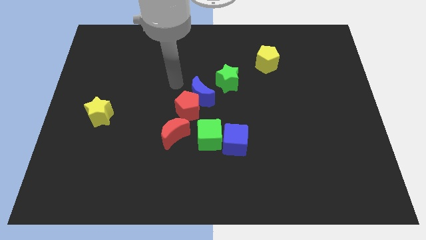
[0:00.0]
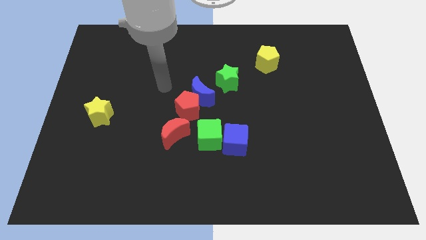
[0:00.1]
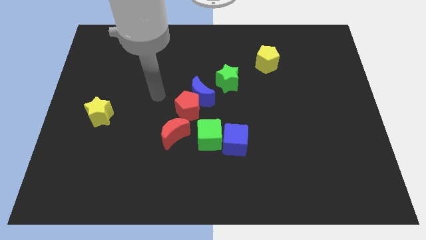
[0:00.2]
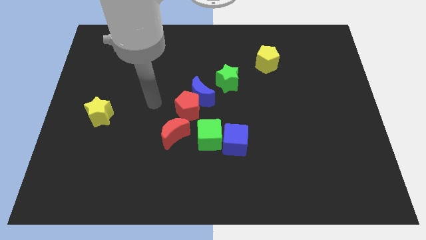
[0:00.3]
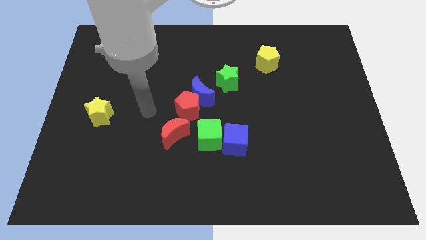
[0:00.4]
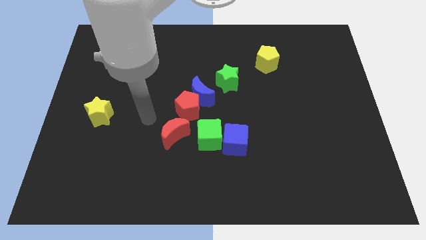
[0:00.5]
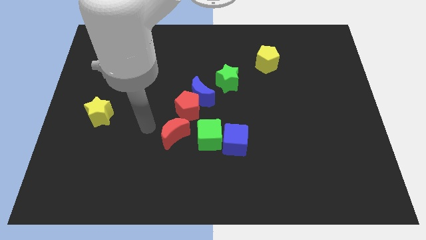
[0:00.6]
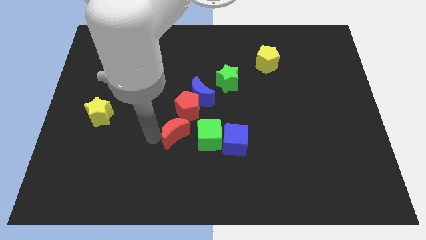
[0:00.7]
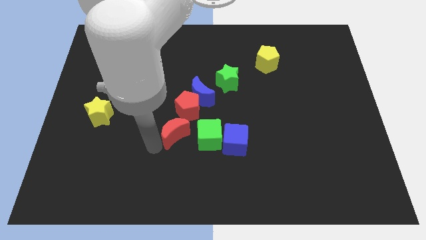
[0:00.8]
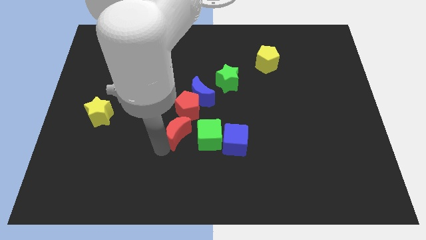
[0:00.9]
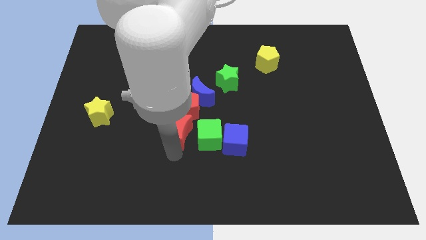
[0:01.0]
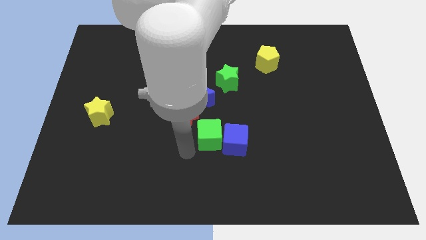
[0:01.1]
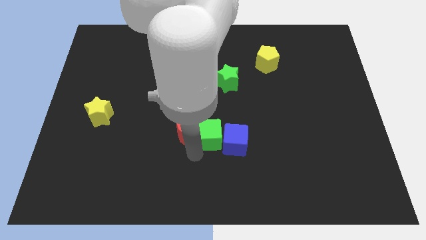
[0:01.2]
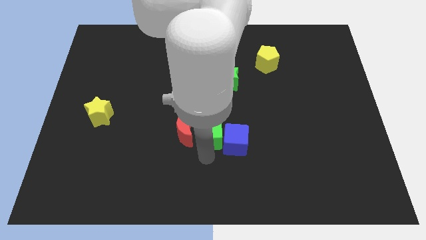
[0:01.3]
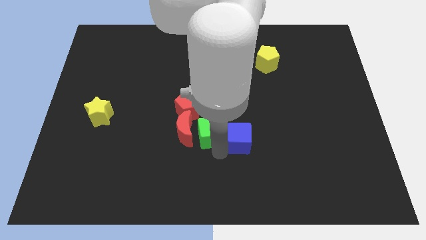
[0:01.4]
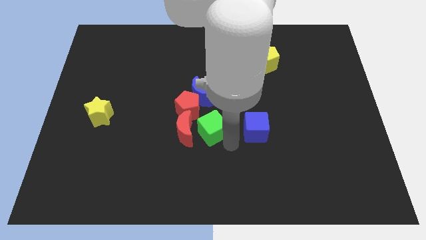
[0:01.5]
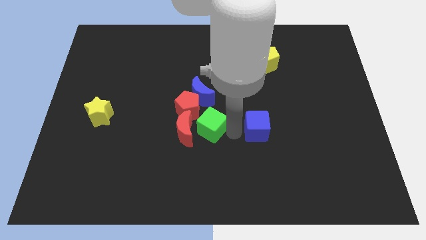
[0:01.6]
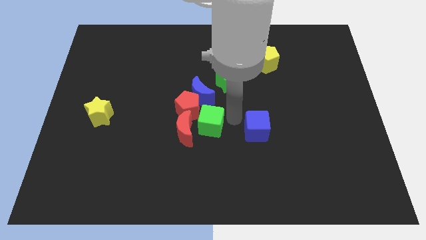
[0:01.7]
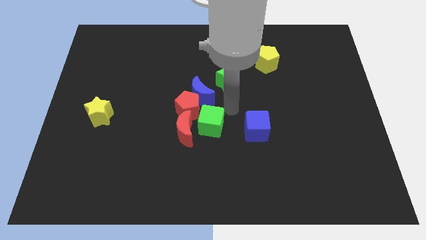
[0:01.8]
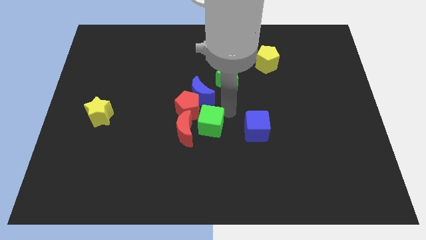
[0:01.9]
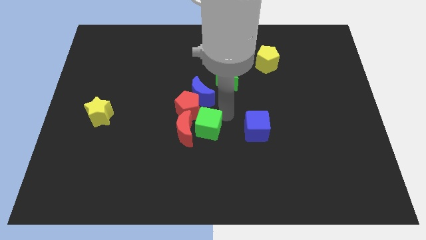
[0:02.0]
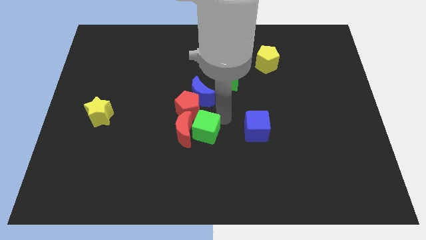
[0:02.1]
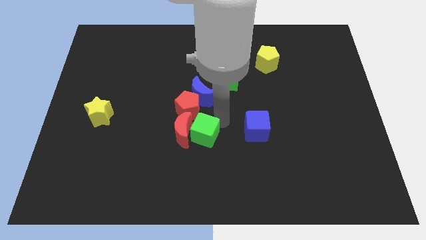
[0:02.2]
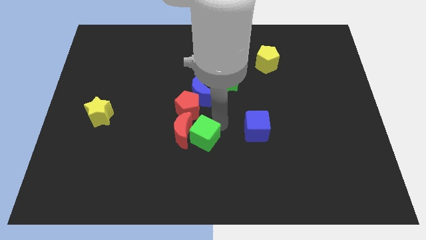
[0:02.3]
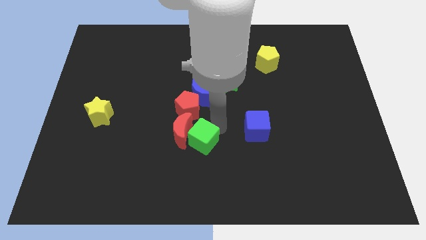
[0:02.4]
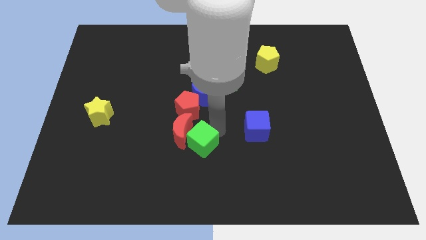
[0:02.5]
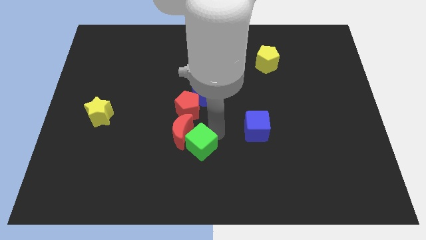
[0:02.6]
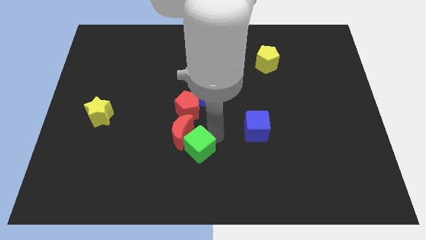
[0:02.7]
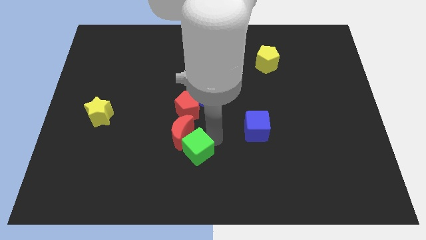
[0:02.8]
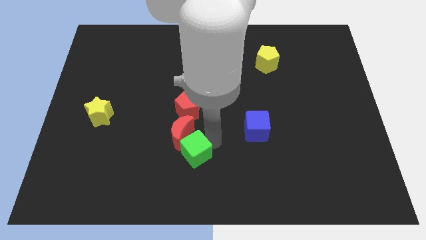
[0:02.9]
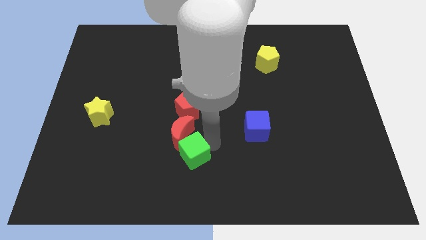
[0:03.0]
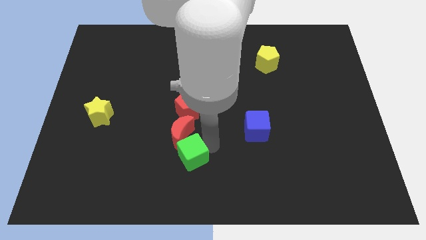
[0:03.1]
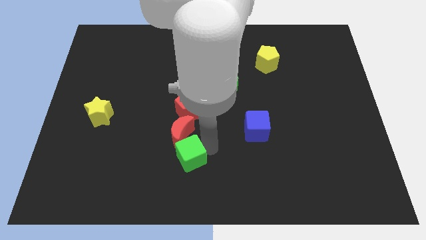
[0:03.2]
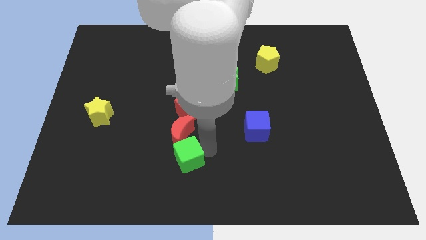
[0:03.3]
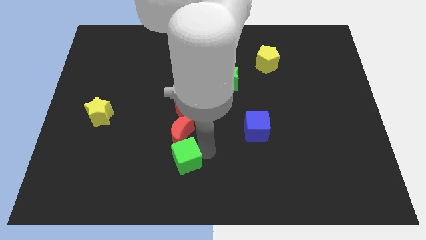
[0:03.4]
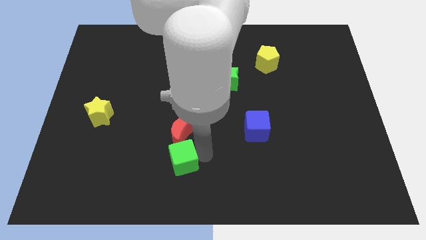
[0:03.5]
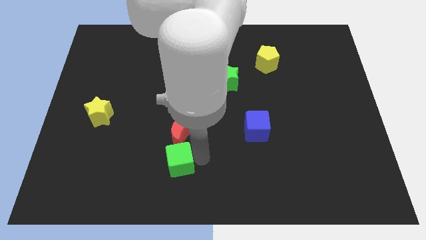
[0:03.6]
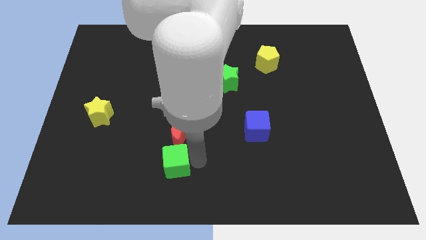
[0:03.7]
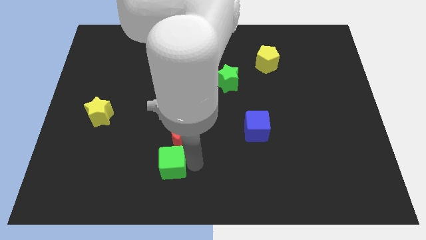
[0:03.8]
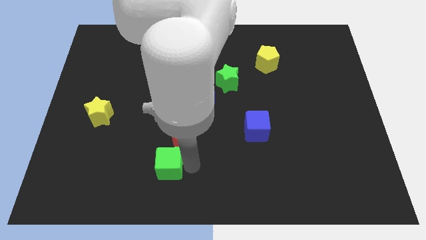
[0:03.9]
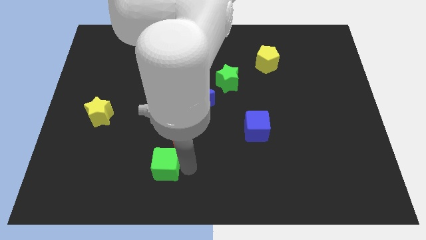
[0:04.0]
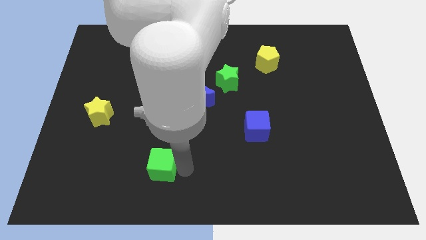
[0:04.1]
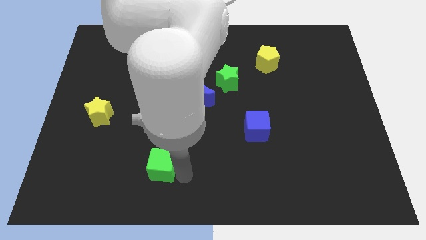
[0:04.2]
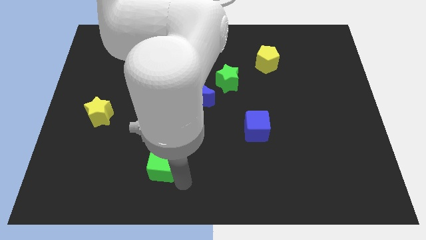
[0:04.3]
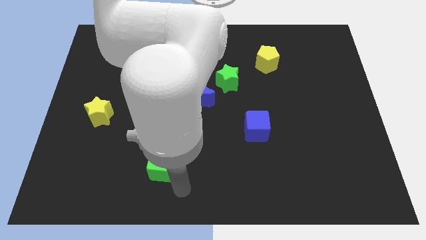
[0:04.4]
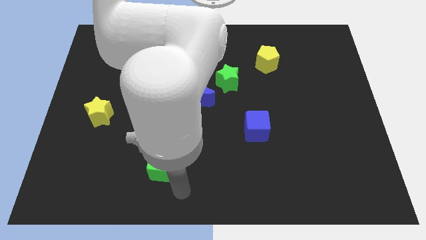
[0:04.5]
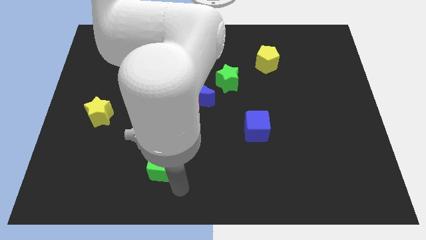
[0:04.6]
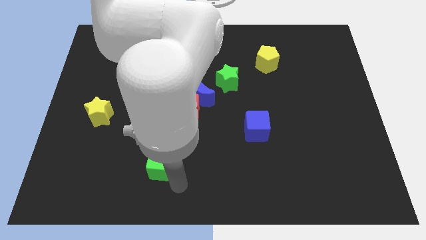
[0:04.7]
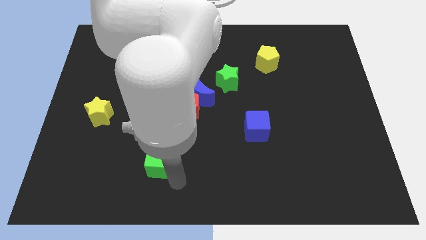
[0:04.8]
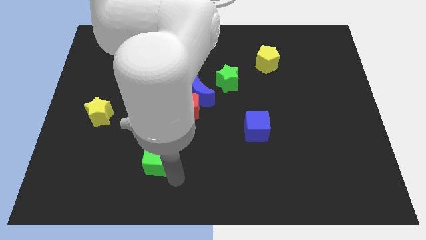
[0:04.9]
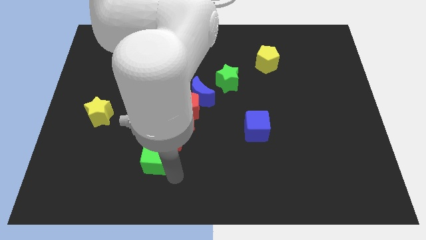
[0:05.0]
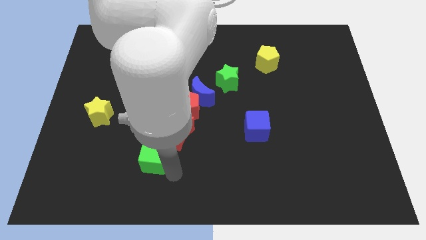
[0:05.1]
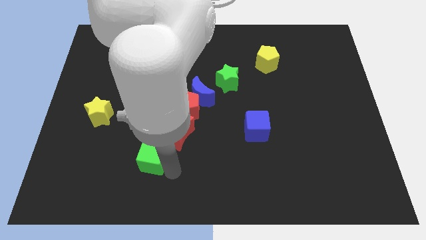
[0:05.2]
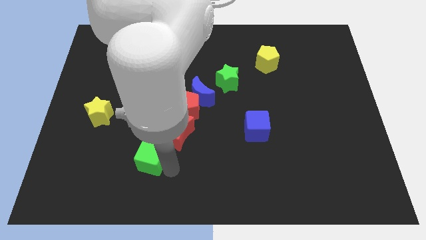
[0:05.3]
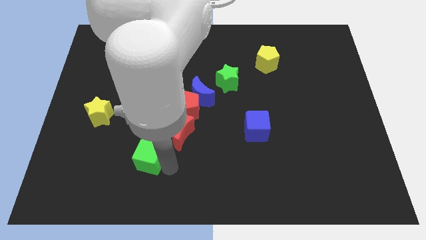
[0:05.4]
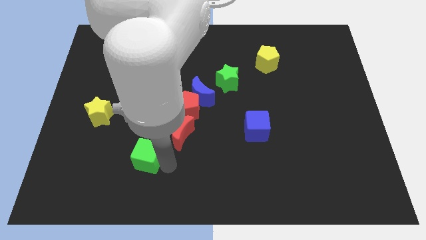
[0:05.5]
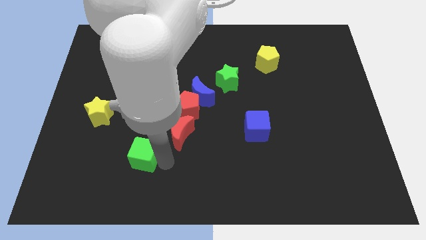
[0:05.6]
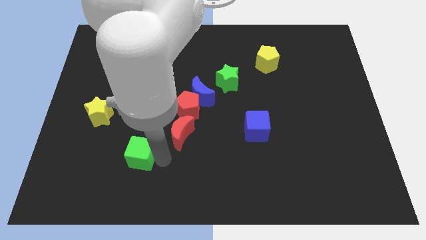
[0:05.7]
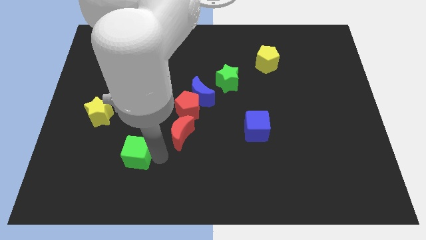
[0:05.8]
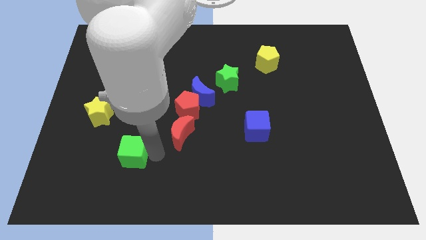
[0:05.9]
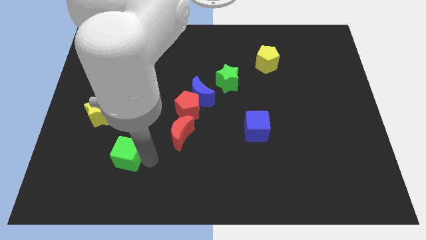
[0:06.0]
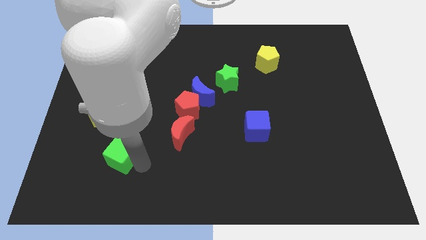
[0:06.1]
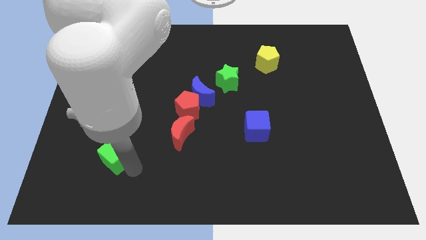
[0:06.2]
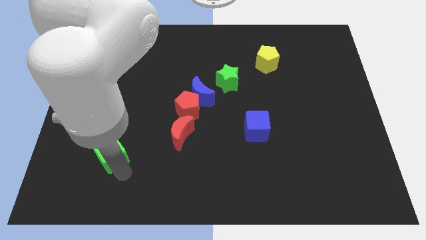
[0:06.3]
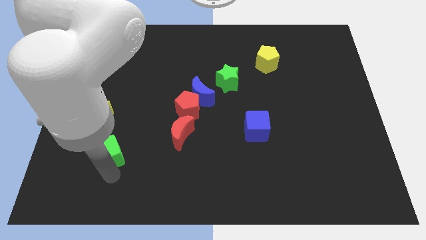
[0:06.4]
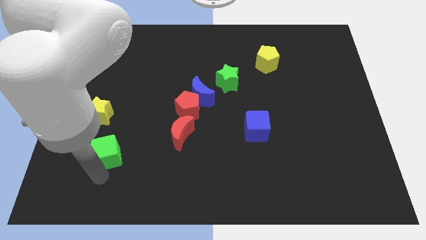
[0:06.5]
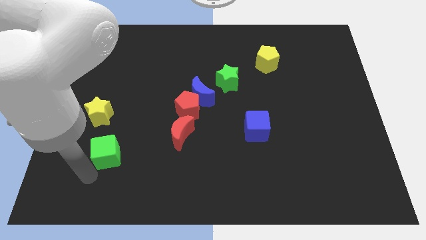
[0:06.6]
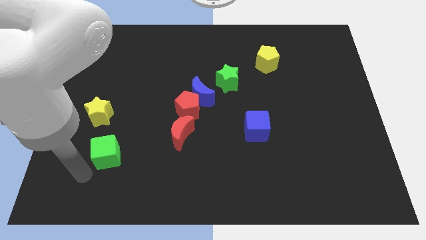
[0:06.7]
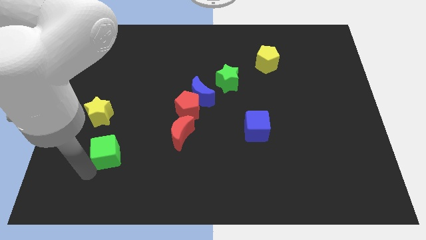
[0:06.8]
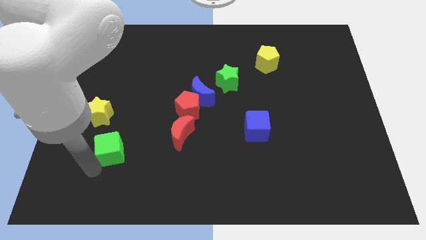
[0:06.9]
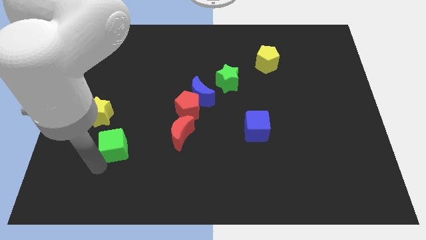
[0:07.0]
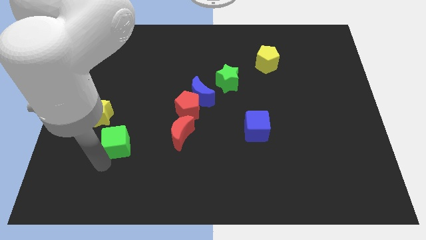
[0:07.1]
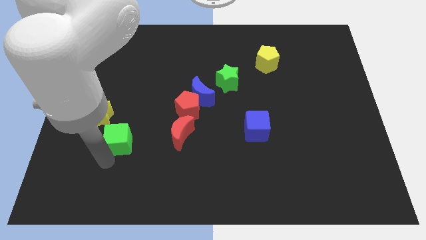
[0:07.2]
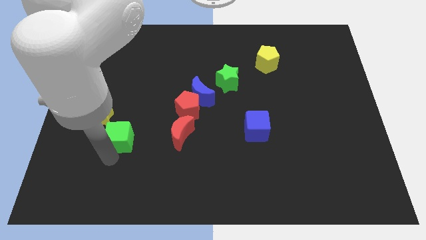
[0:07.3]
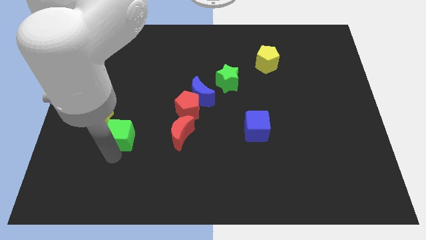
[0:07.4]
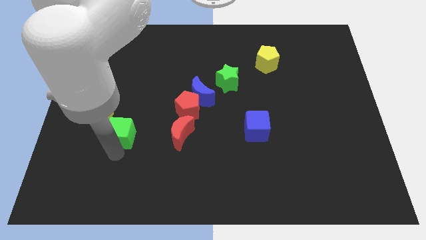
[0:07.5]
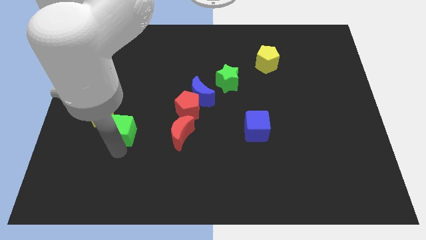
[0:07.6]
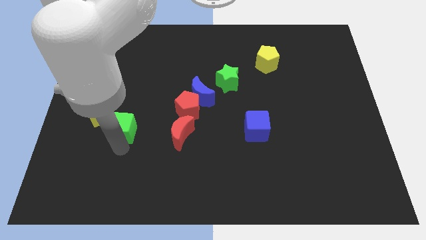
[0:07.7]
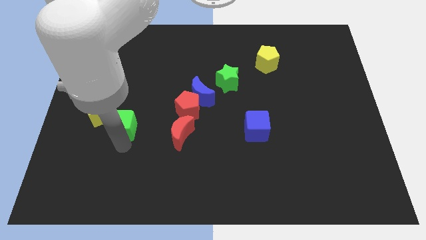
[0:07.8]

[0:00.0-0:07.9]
slide the green cube upwards and to the left diagonally somewhat

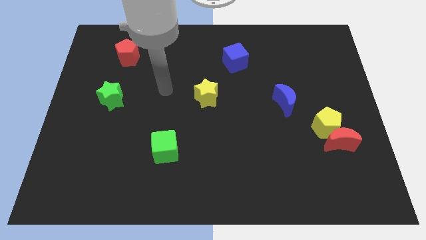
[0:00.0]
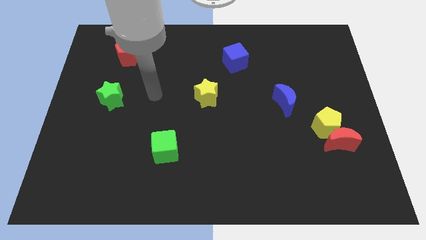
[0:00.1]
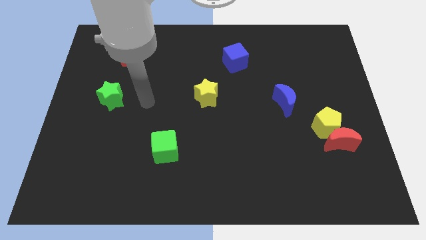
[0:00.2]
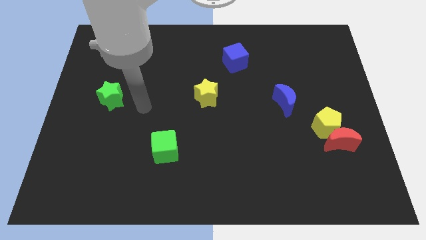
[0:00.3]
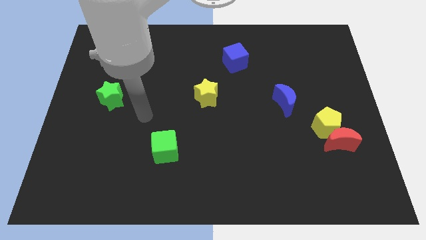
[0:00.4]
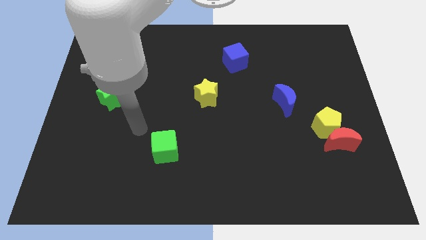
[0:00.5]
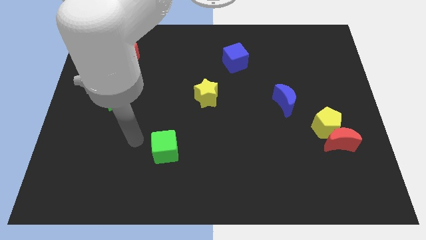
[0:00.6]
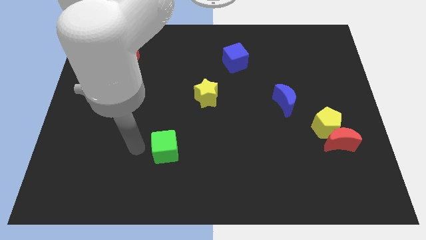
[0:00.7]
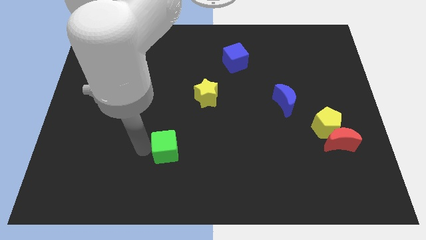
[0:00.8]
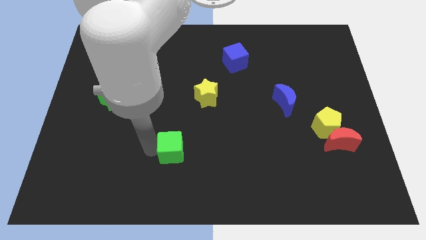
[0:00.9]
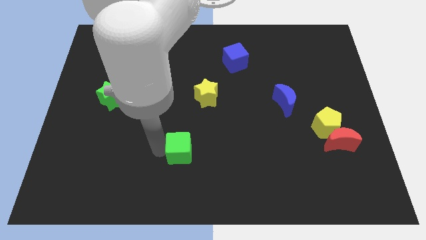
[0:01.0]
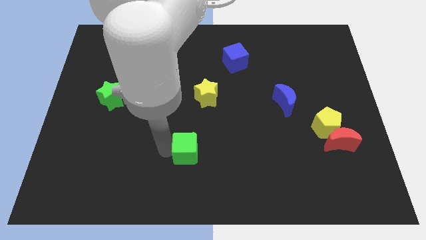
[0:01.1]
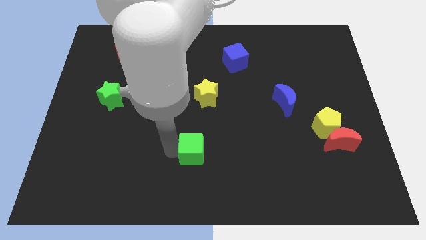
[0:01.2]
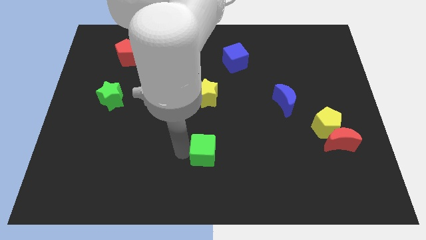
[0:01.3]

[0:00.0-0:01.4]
move the green cube to the right somewhat
